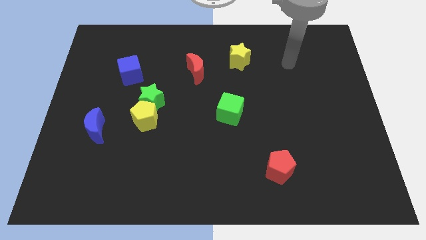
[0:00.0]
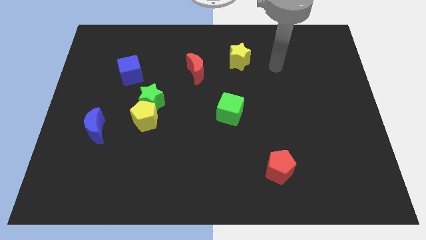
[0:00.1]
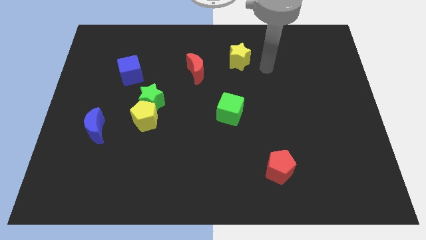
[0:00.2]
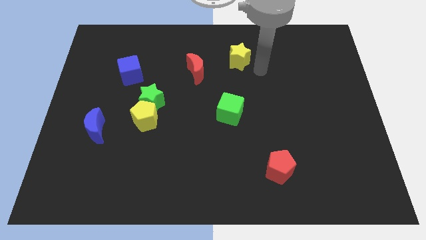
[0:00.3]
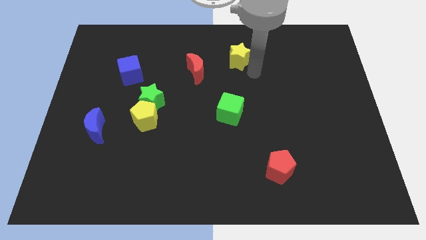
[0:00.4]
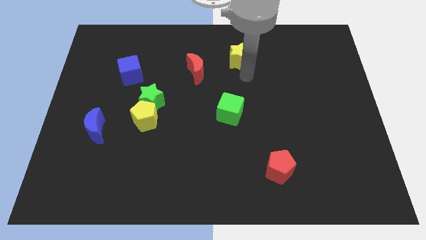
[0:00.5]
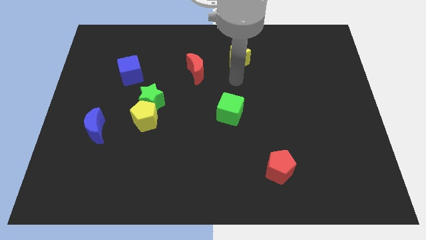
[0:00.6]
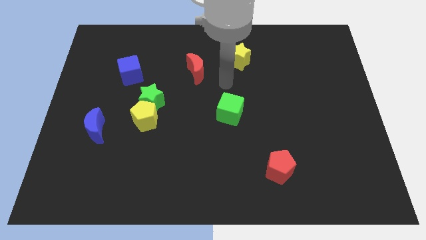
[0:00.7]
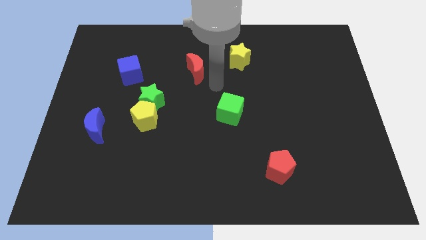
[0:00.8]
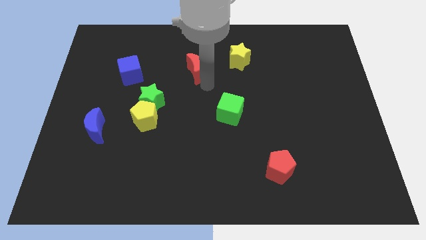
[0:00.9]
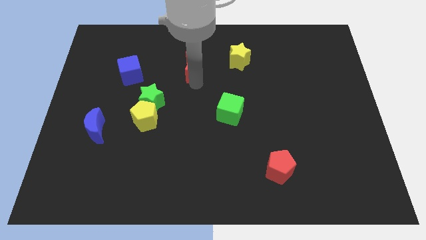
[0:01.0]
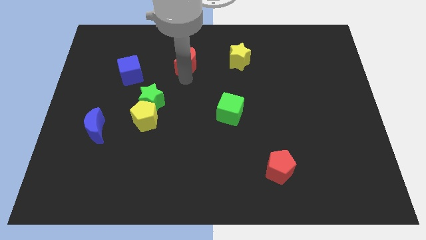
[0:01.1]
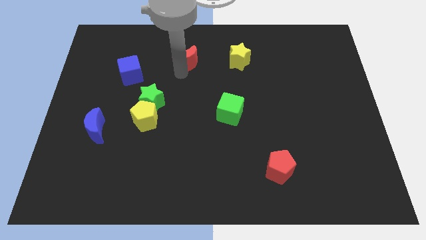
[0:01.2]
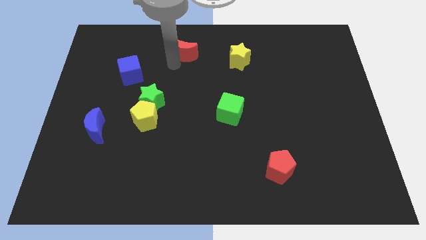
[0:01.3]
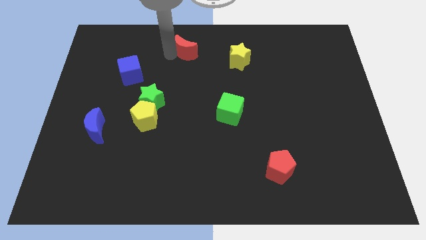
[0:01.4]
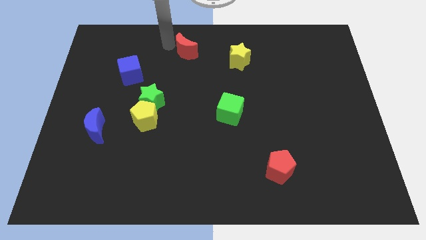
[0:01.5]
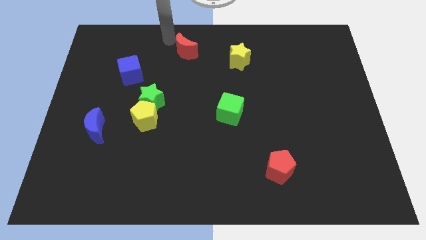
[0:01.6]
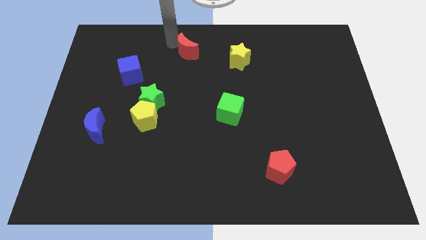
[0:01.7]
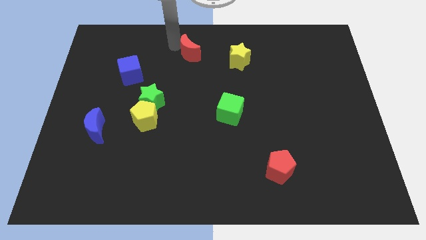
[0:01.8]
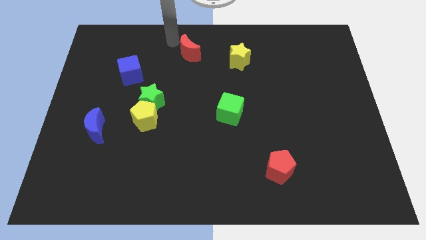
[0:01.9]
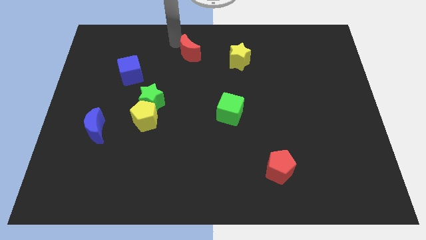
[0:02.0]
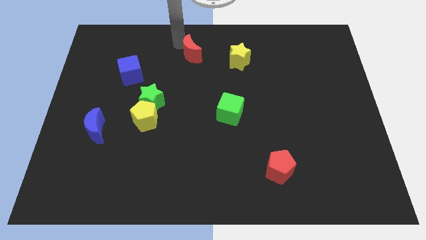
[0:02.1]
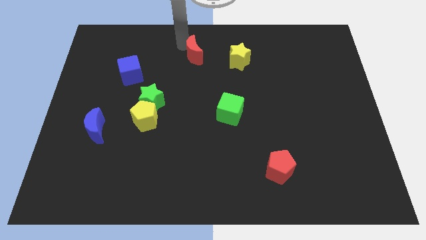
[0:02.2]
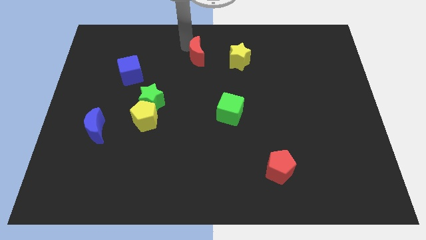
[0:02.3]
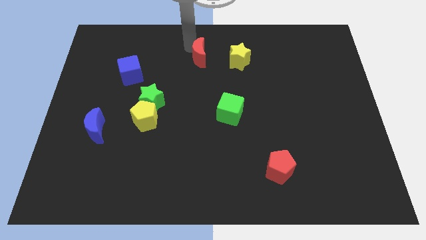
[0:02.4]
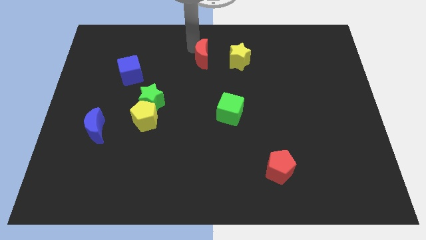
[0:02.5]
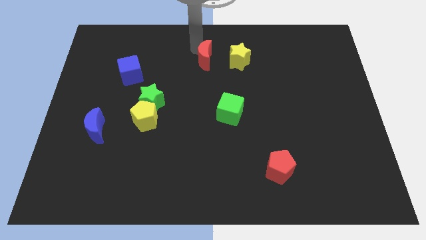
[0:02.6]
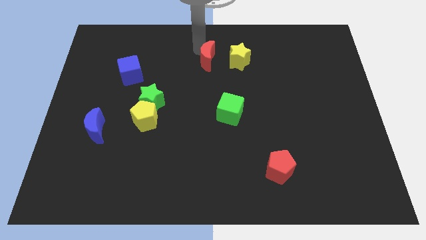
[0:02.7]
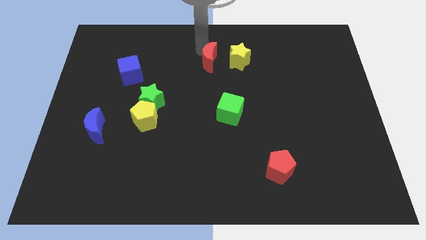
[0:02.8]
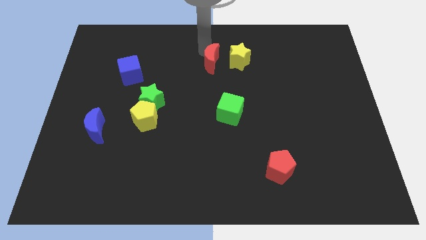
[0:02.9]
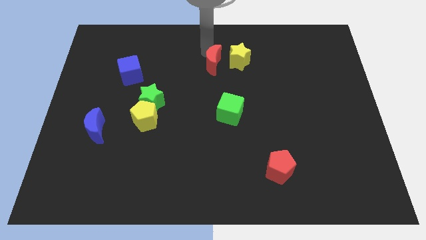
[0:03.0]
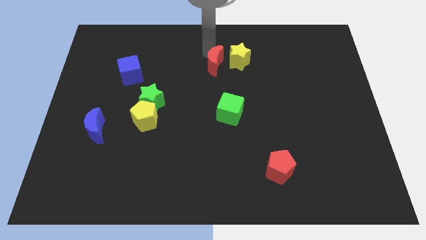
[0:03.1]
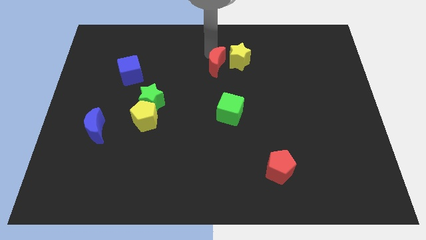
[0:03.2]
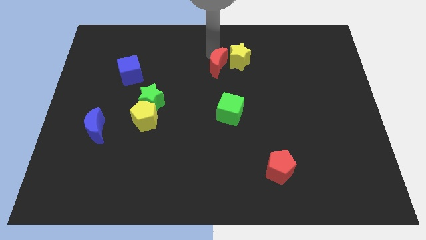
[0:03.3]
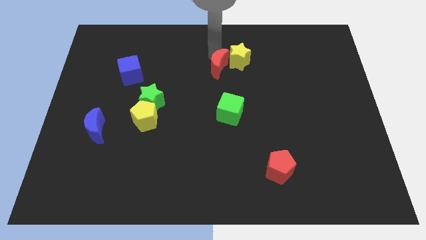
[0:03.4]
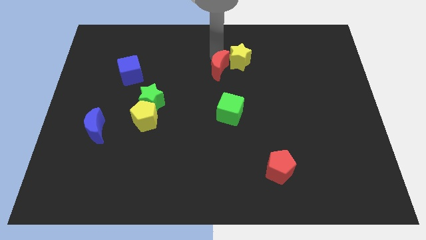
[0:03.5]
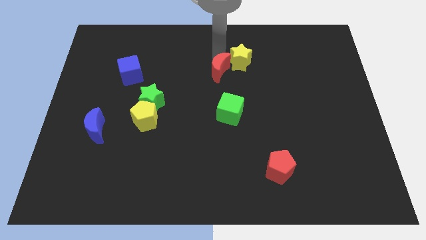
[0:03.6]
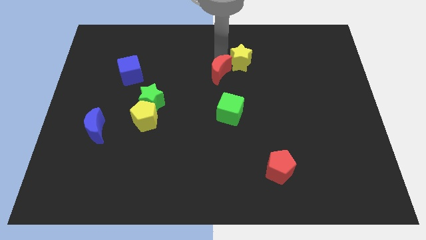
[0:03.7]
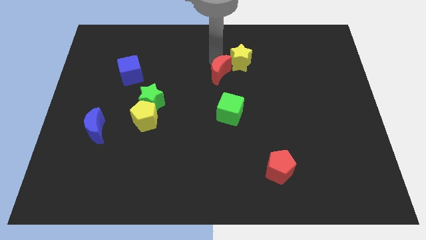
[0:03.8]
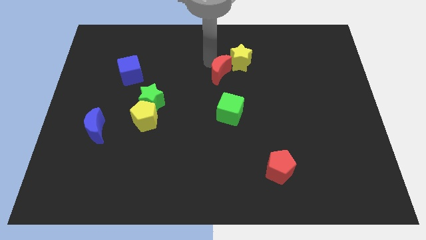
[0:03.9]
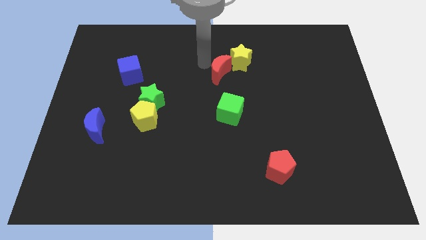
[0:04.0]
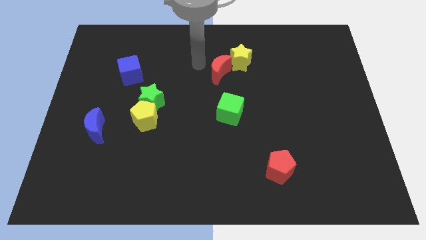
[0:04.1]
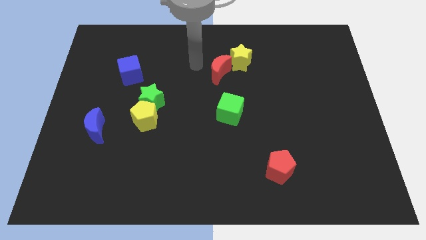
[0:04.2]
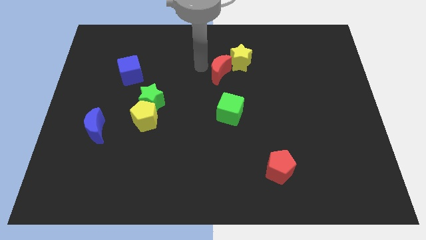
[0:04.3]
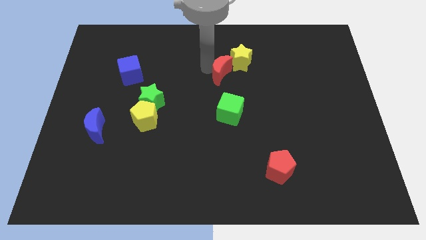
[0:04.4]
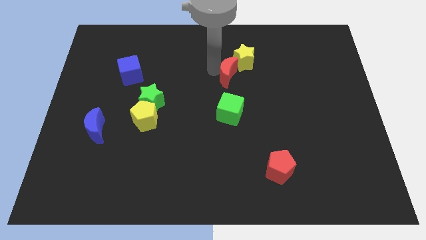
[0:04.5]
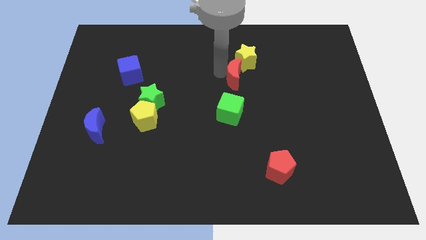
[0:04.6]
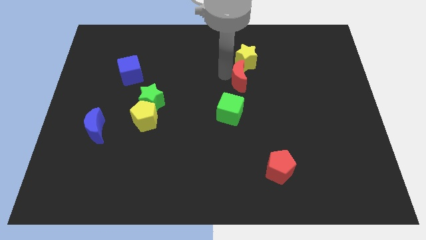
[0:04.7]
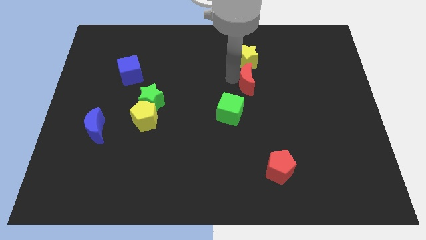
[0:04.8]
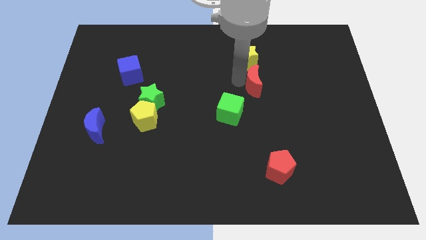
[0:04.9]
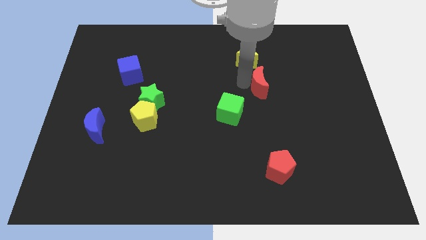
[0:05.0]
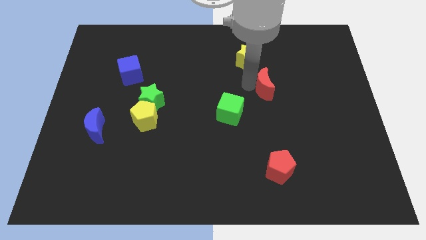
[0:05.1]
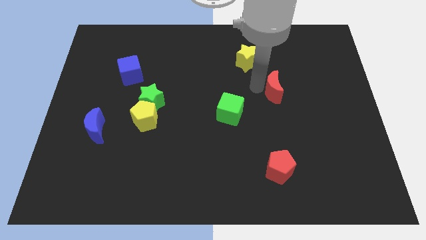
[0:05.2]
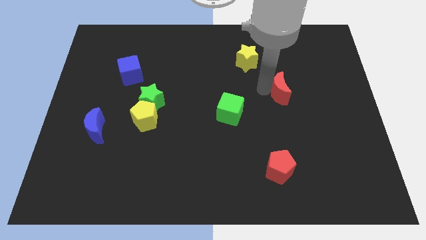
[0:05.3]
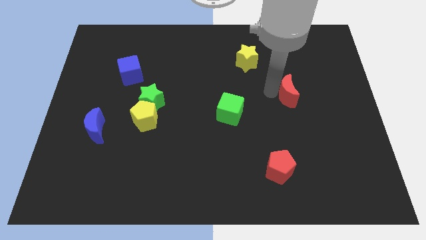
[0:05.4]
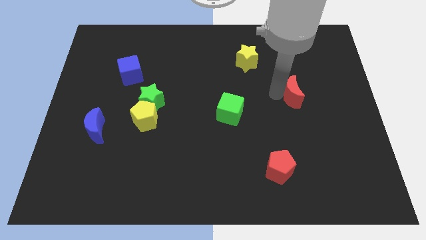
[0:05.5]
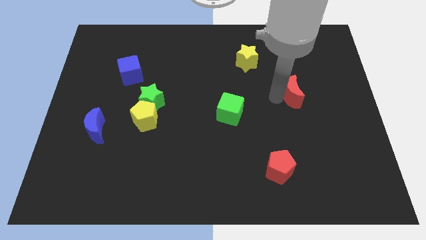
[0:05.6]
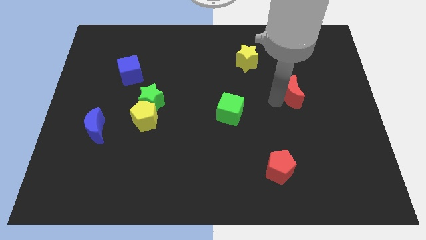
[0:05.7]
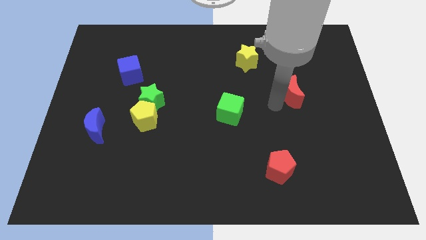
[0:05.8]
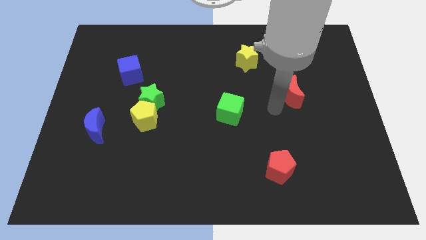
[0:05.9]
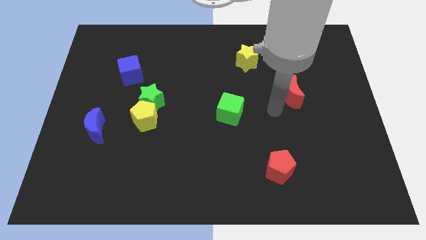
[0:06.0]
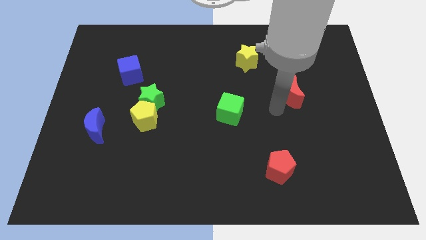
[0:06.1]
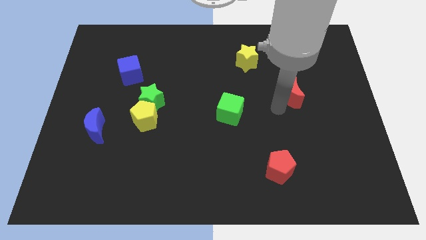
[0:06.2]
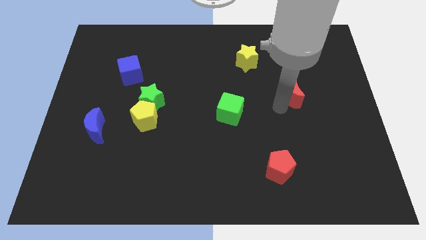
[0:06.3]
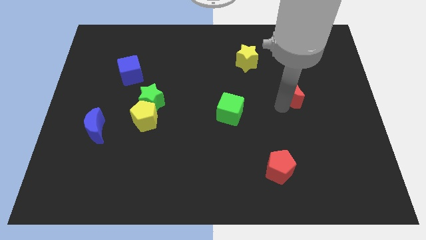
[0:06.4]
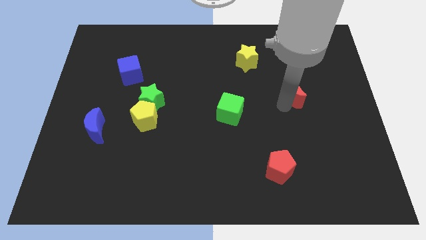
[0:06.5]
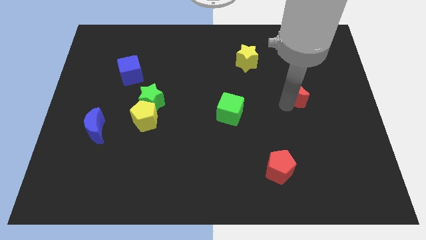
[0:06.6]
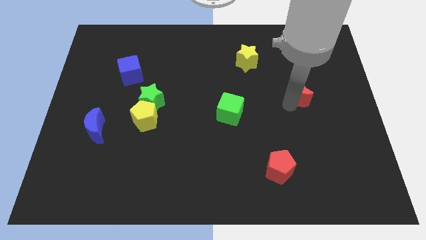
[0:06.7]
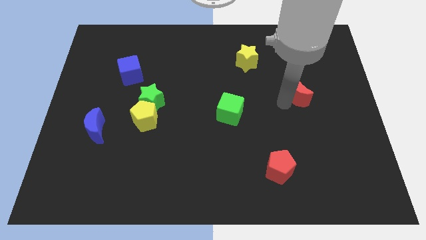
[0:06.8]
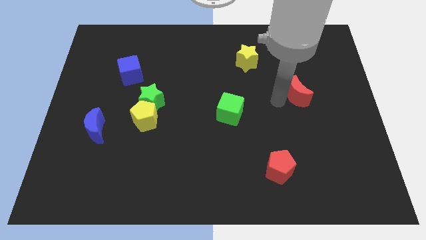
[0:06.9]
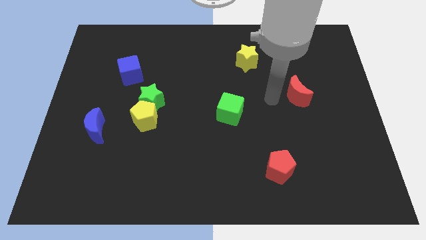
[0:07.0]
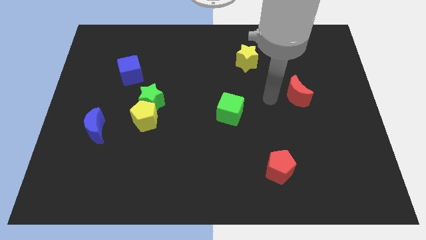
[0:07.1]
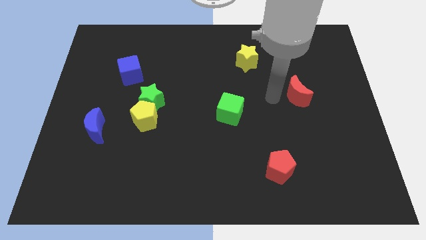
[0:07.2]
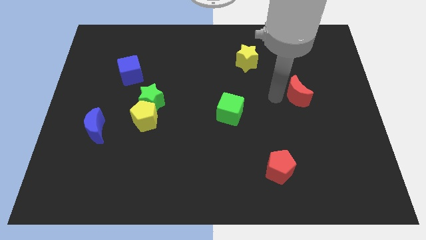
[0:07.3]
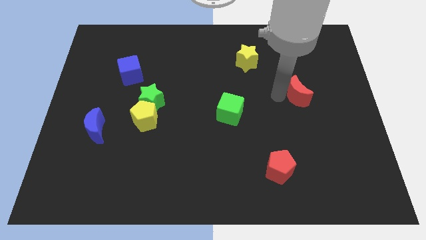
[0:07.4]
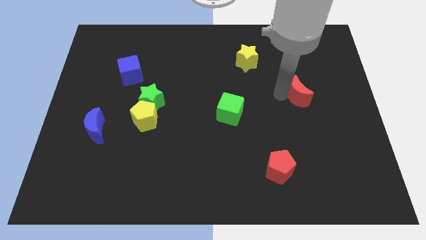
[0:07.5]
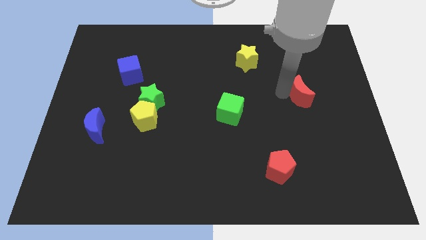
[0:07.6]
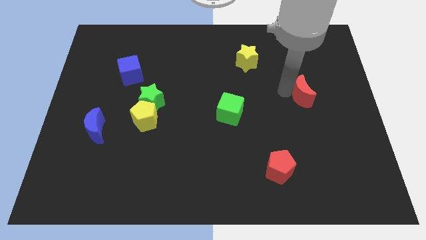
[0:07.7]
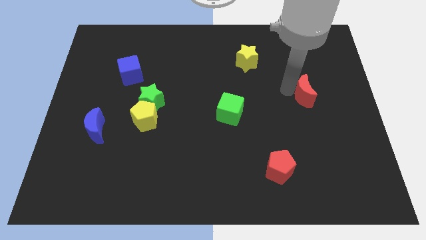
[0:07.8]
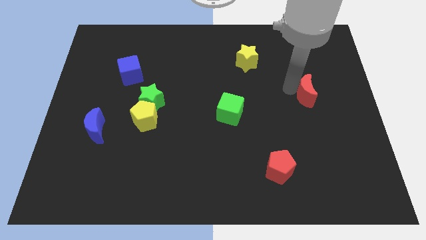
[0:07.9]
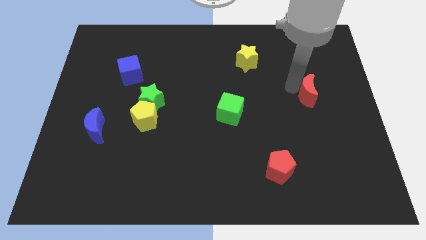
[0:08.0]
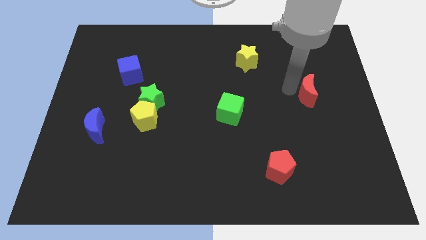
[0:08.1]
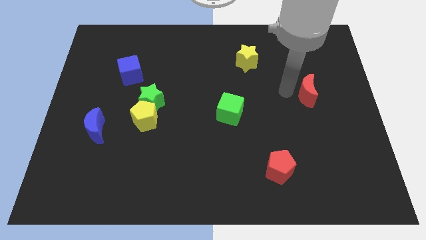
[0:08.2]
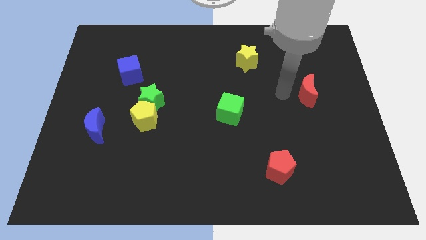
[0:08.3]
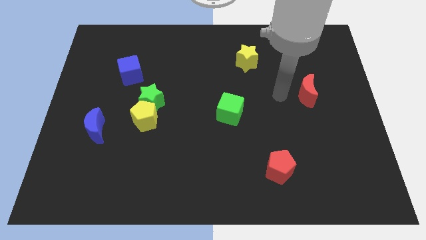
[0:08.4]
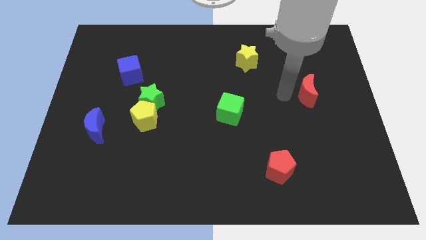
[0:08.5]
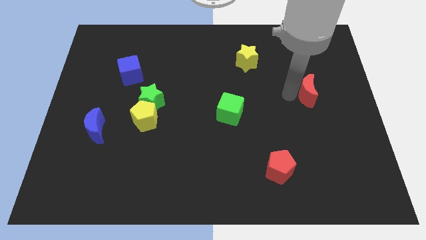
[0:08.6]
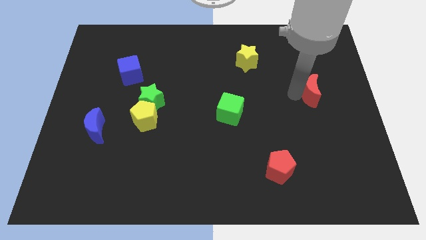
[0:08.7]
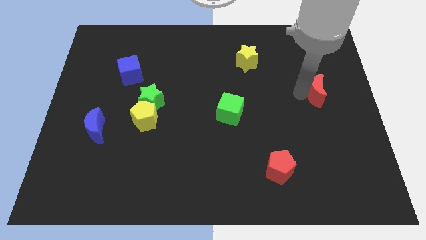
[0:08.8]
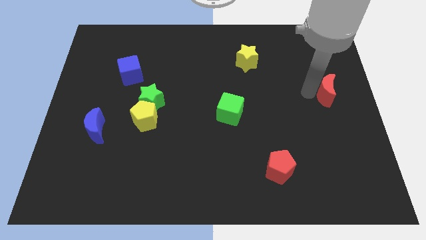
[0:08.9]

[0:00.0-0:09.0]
push the red moon to the right side
